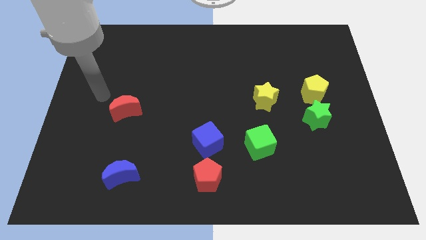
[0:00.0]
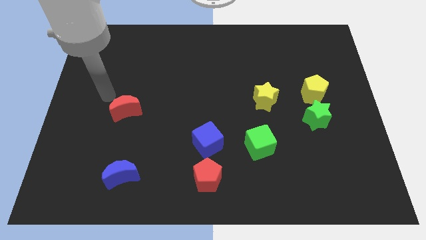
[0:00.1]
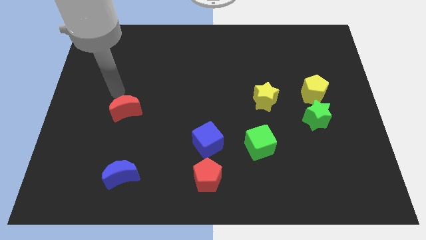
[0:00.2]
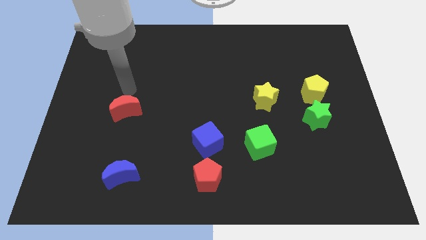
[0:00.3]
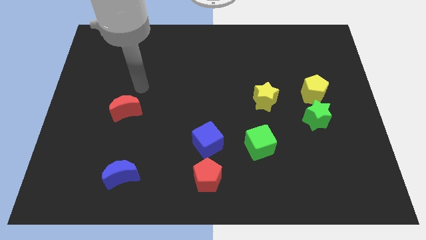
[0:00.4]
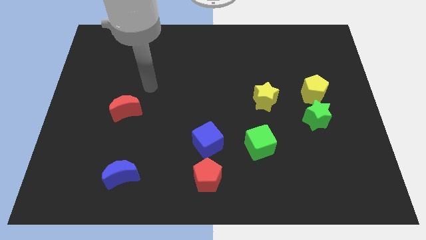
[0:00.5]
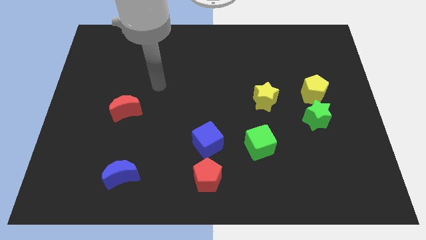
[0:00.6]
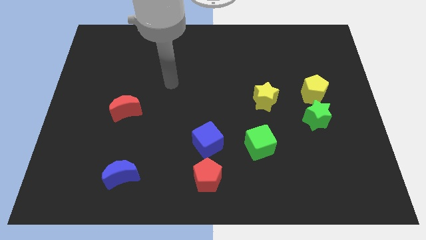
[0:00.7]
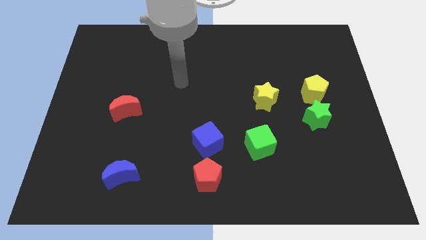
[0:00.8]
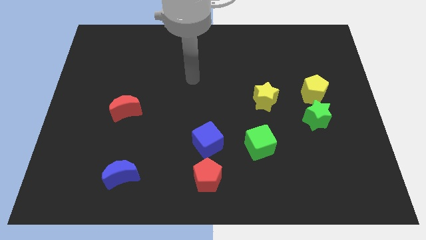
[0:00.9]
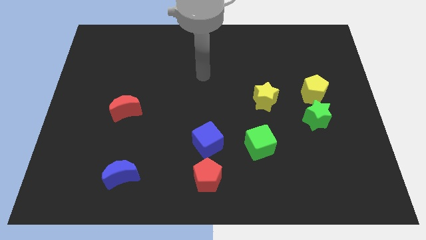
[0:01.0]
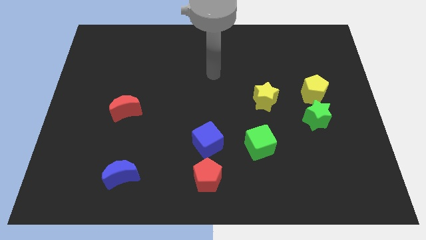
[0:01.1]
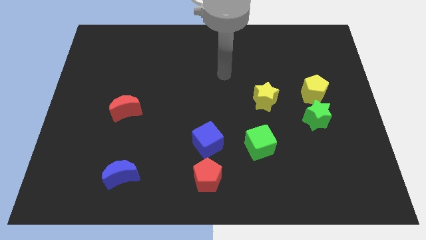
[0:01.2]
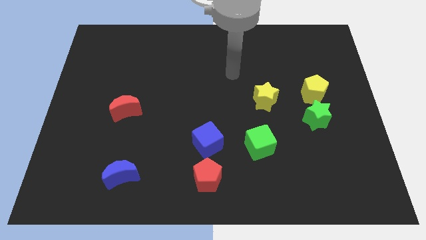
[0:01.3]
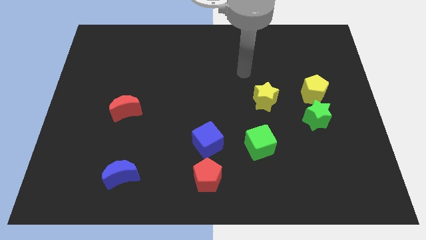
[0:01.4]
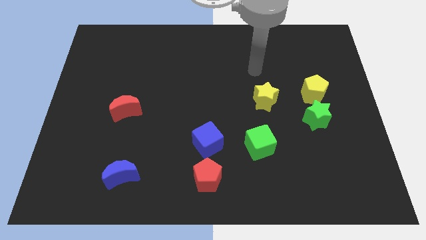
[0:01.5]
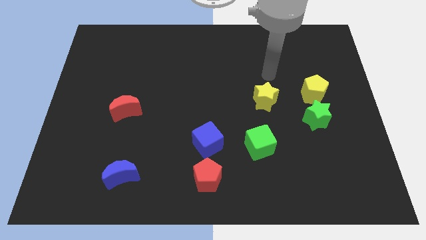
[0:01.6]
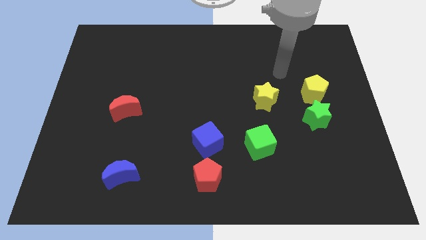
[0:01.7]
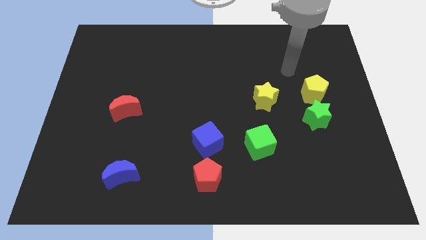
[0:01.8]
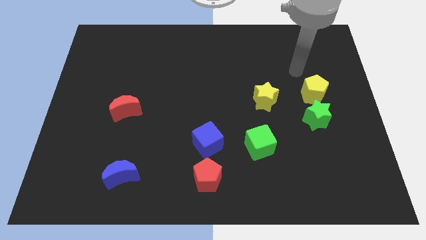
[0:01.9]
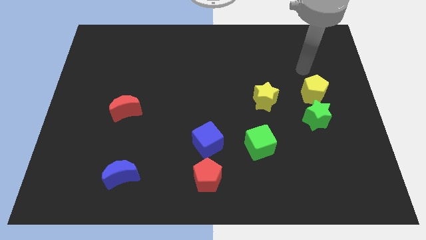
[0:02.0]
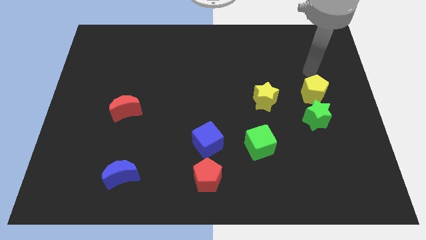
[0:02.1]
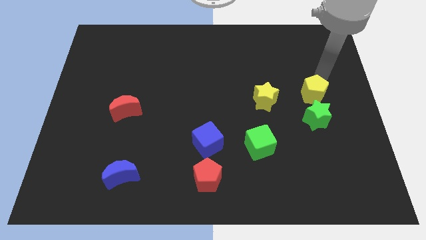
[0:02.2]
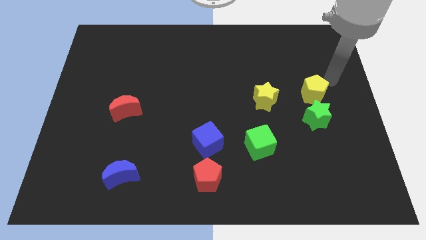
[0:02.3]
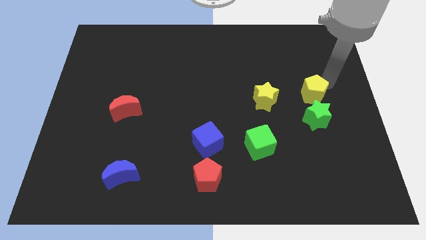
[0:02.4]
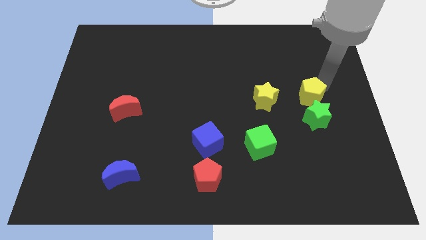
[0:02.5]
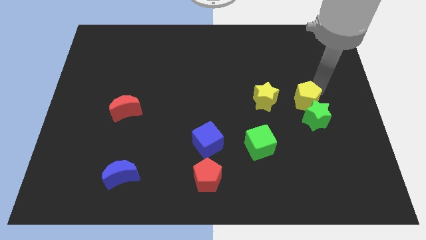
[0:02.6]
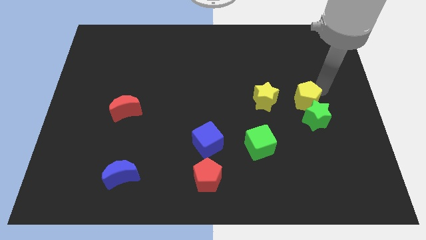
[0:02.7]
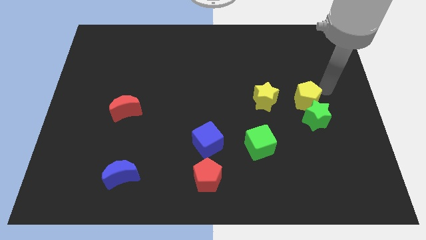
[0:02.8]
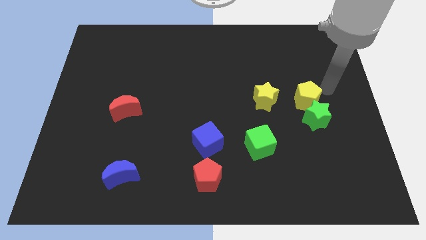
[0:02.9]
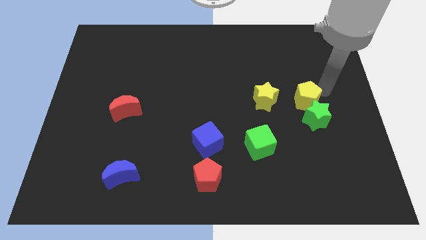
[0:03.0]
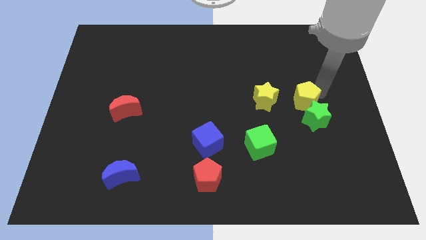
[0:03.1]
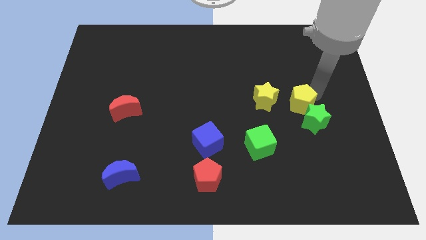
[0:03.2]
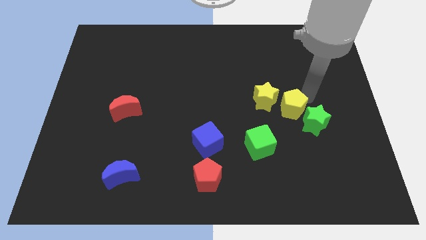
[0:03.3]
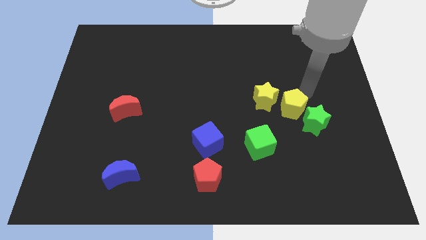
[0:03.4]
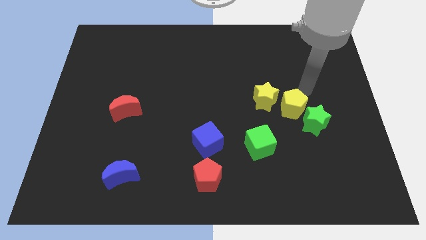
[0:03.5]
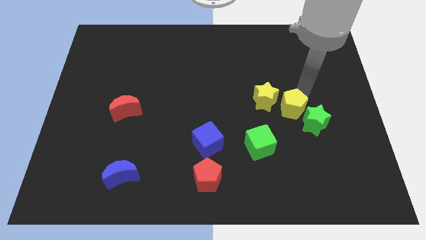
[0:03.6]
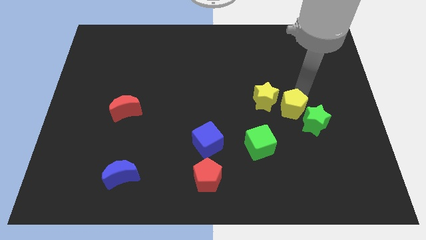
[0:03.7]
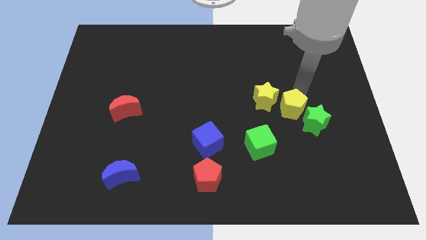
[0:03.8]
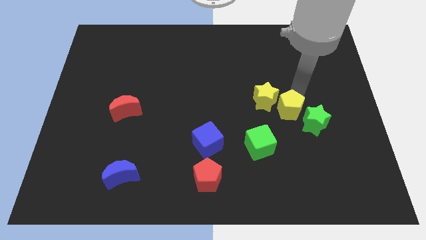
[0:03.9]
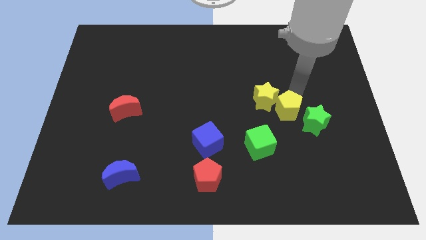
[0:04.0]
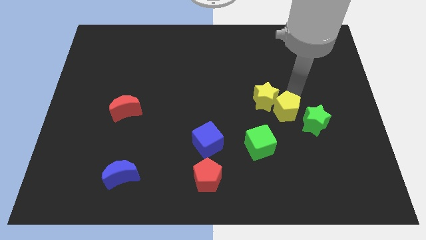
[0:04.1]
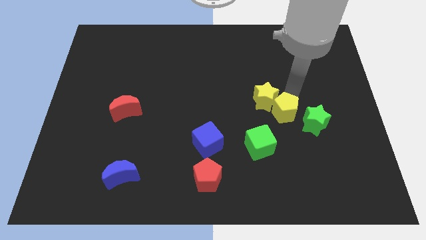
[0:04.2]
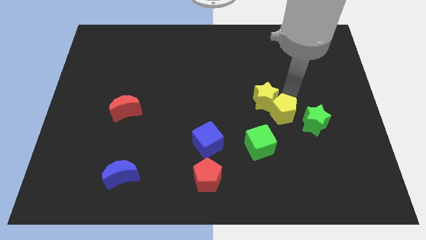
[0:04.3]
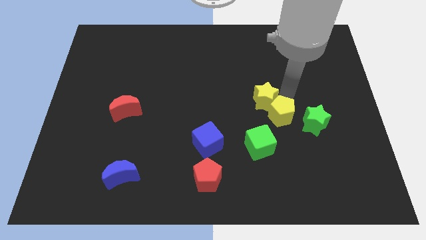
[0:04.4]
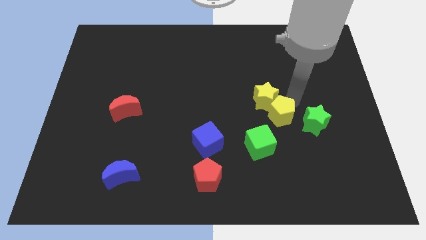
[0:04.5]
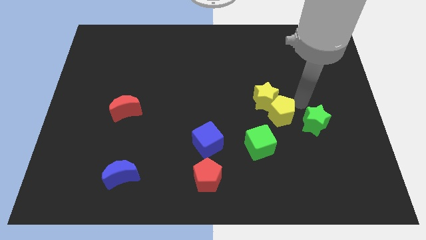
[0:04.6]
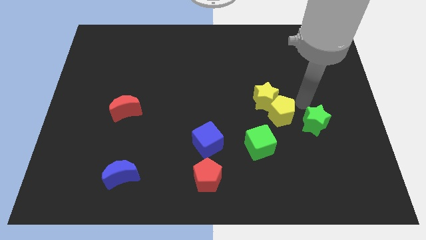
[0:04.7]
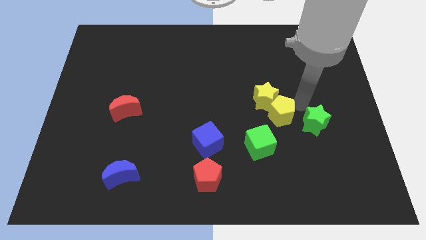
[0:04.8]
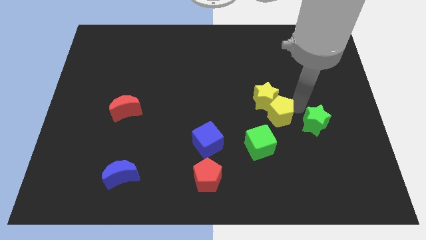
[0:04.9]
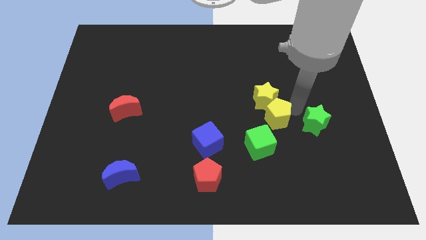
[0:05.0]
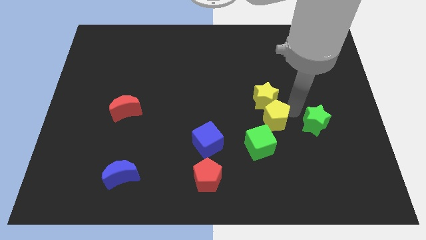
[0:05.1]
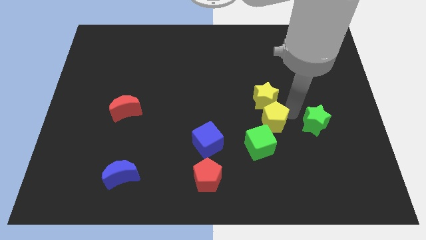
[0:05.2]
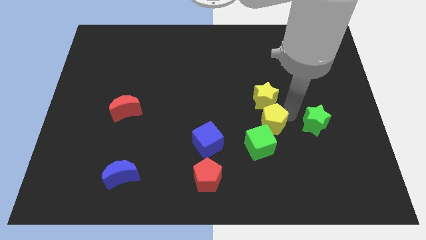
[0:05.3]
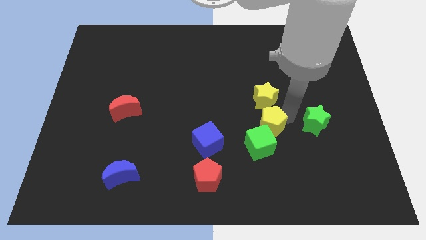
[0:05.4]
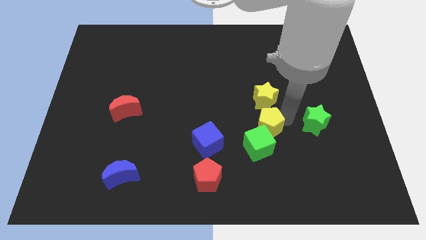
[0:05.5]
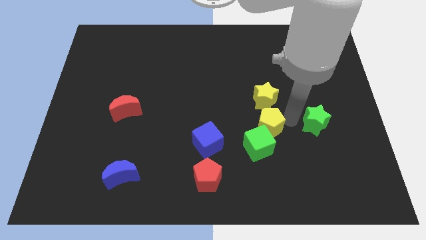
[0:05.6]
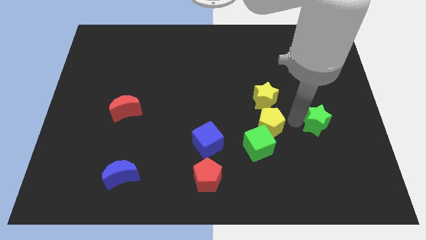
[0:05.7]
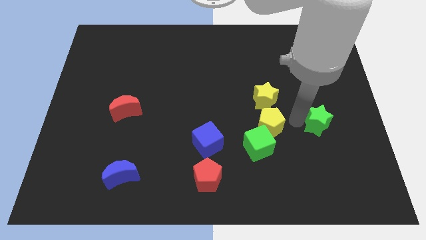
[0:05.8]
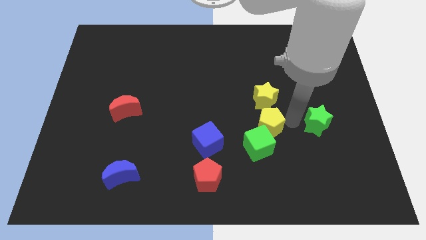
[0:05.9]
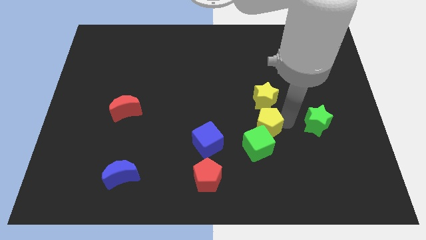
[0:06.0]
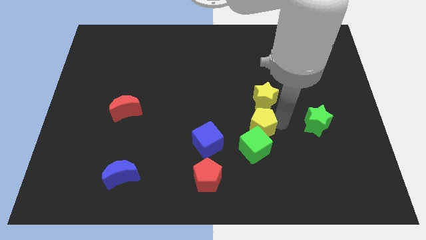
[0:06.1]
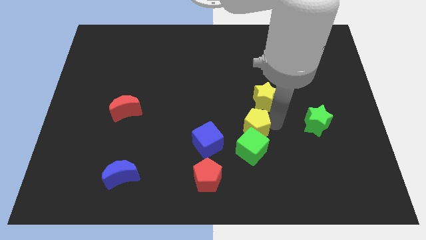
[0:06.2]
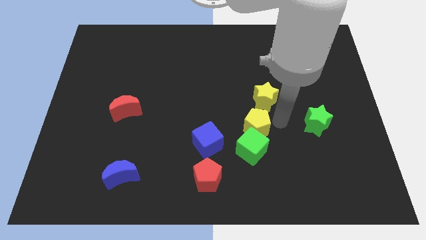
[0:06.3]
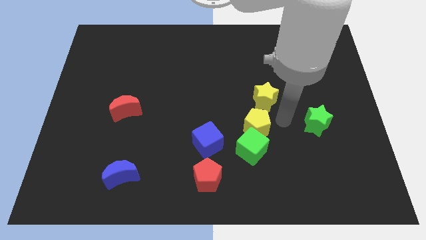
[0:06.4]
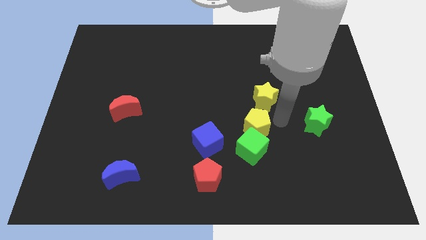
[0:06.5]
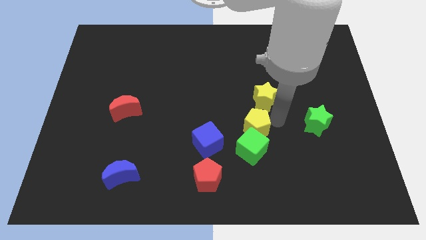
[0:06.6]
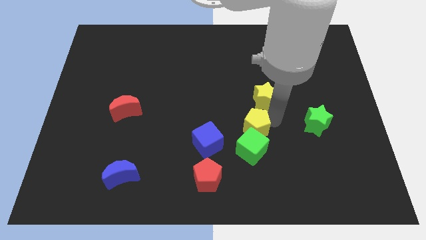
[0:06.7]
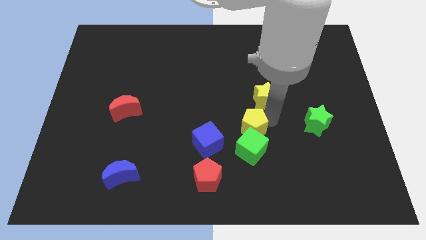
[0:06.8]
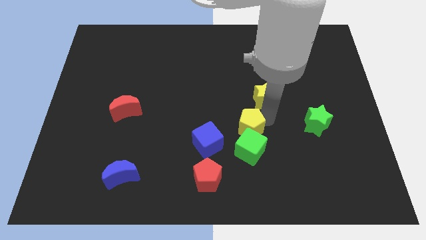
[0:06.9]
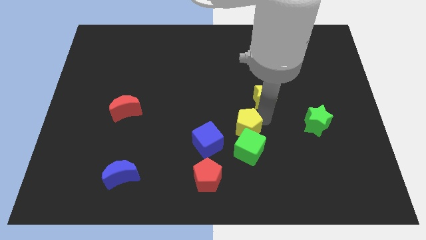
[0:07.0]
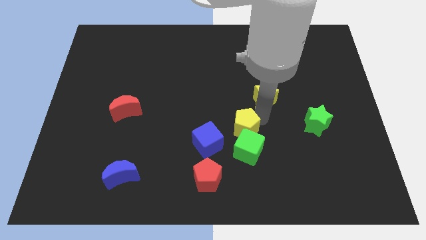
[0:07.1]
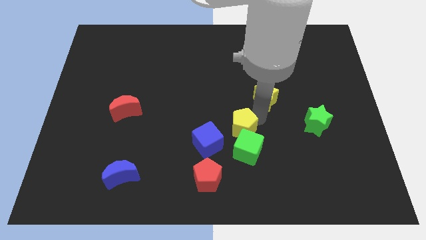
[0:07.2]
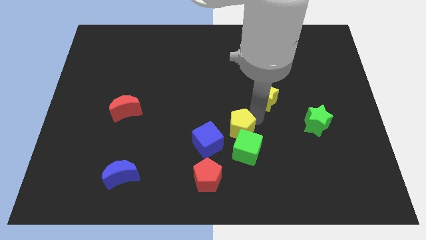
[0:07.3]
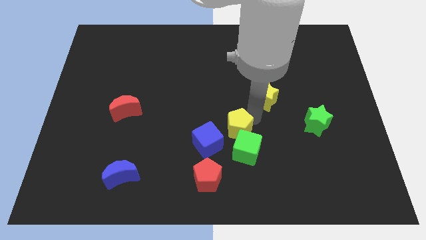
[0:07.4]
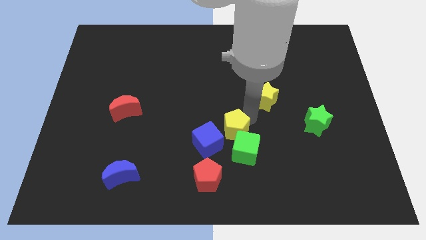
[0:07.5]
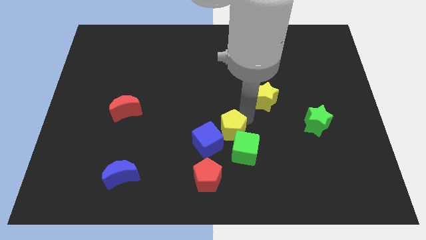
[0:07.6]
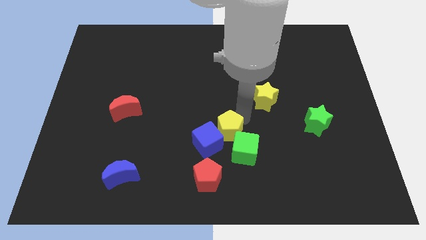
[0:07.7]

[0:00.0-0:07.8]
move the yellow pentagon close to the blue cube
